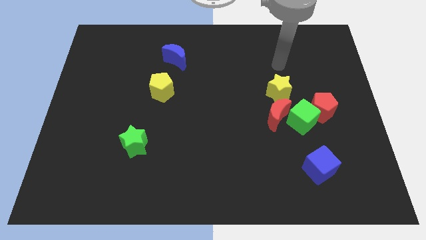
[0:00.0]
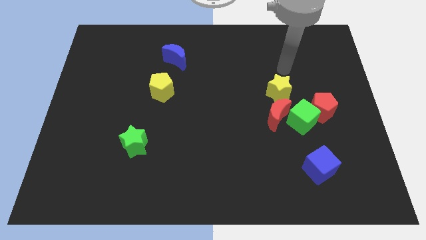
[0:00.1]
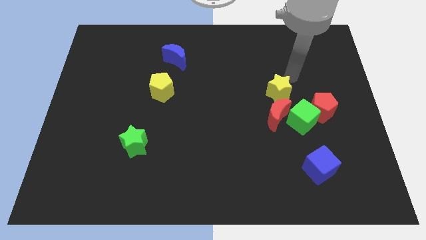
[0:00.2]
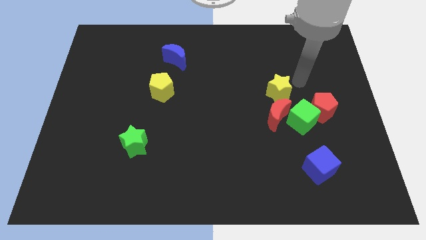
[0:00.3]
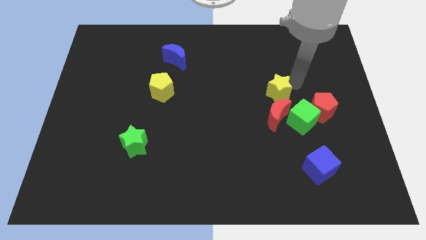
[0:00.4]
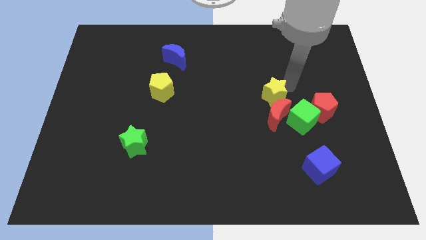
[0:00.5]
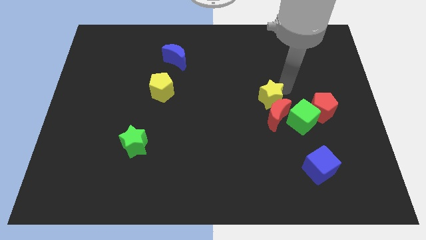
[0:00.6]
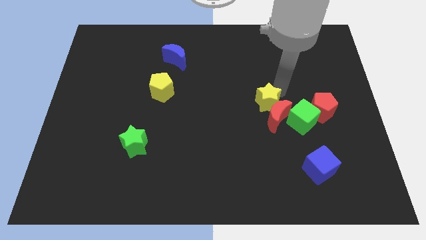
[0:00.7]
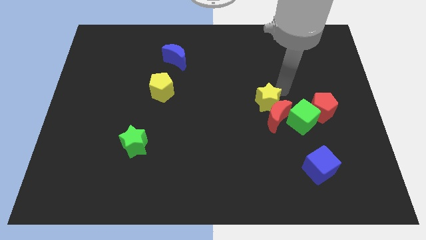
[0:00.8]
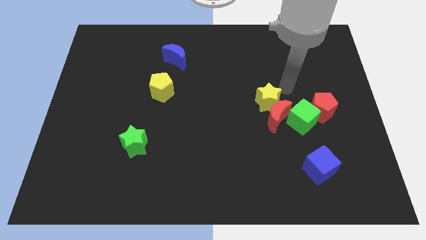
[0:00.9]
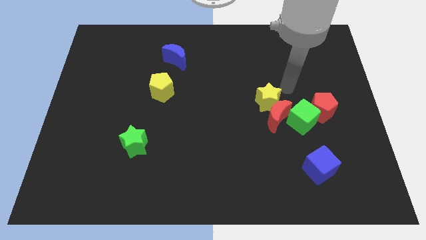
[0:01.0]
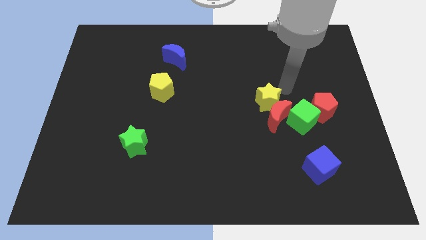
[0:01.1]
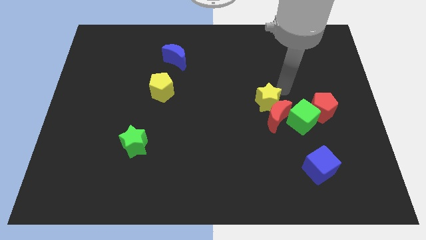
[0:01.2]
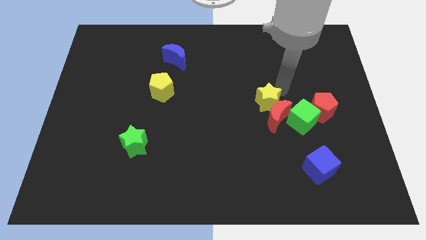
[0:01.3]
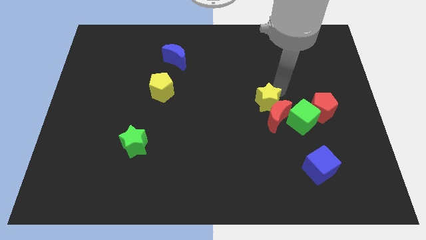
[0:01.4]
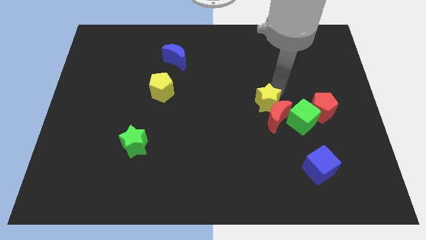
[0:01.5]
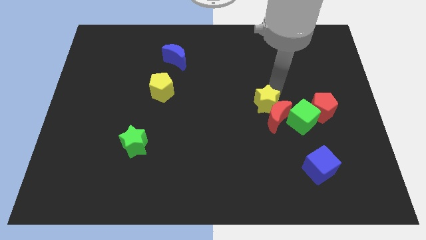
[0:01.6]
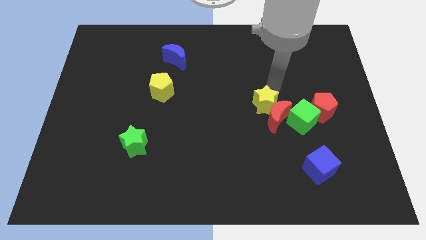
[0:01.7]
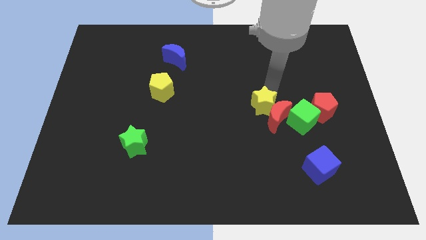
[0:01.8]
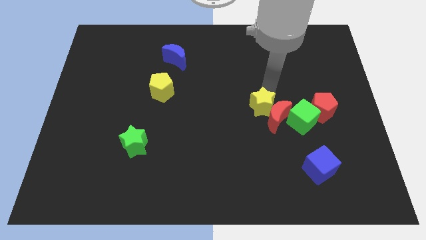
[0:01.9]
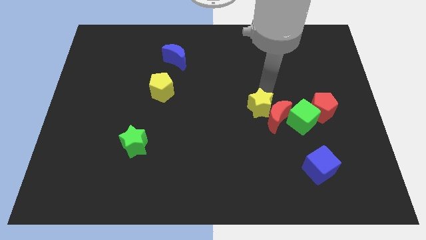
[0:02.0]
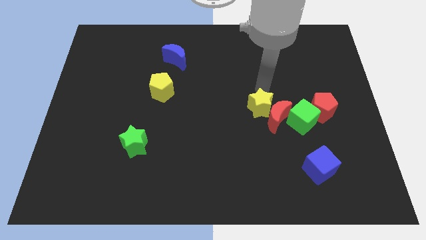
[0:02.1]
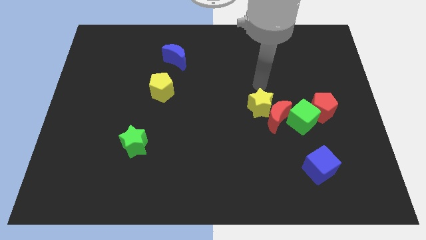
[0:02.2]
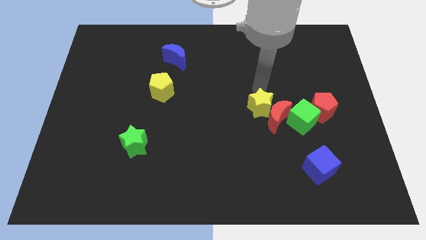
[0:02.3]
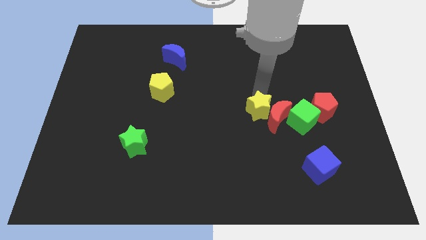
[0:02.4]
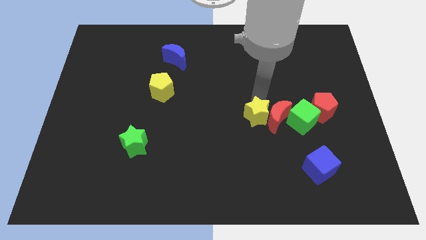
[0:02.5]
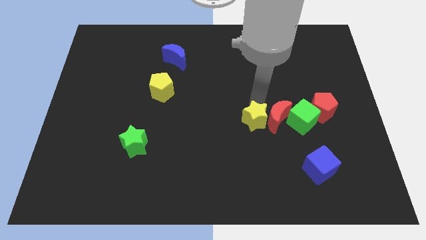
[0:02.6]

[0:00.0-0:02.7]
slightly slide the yellow star down

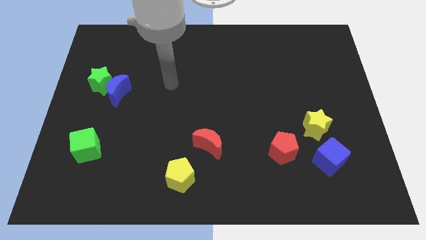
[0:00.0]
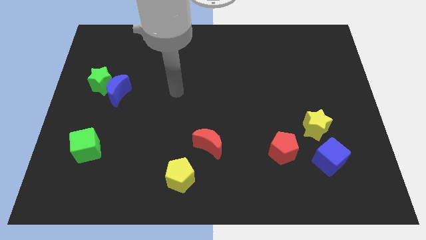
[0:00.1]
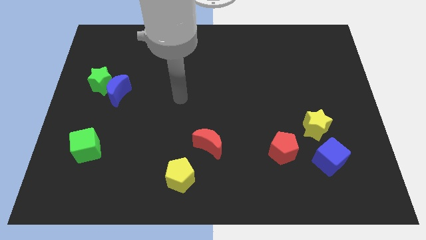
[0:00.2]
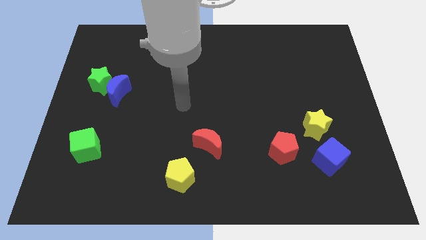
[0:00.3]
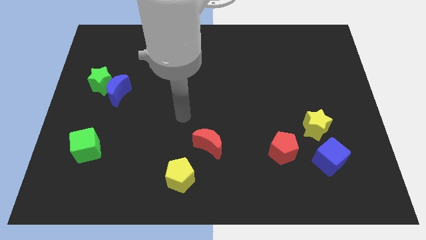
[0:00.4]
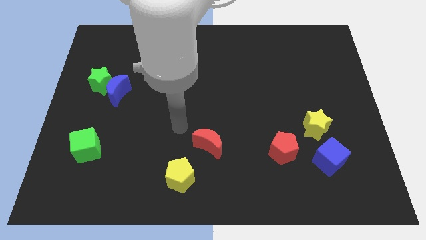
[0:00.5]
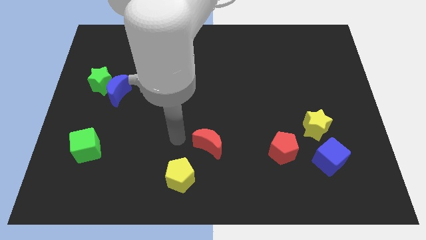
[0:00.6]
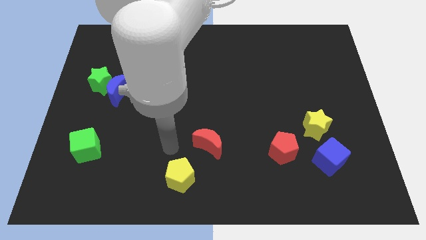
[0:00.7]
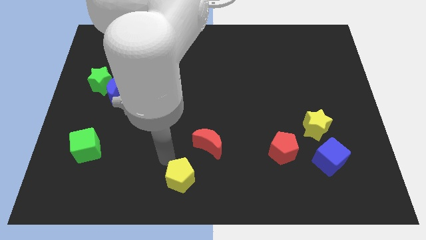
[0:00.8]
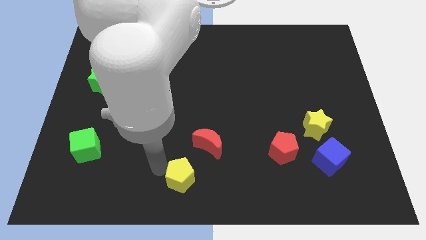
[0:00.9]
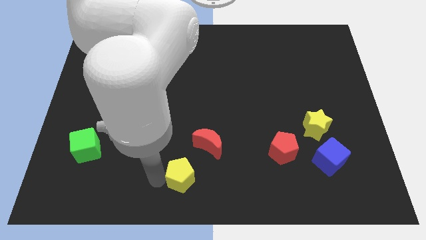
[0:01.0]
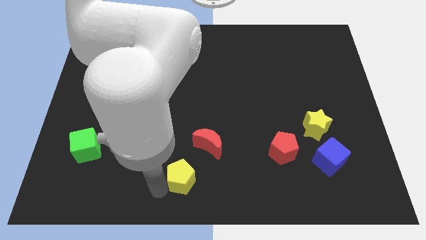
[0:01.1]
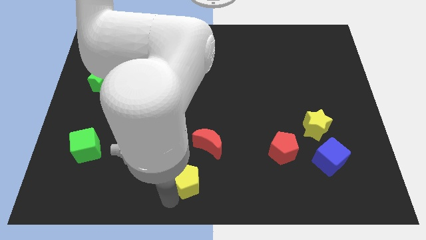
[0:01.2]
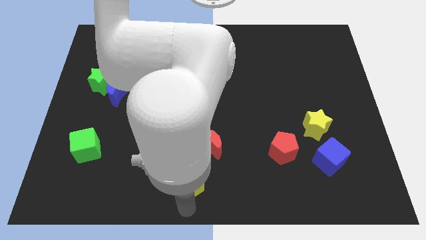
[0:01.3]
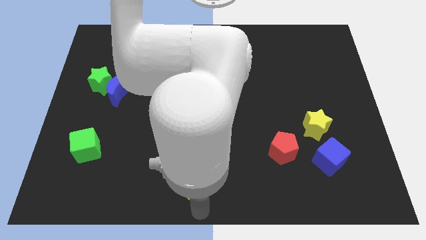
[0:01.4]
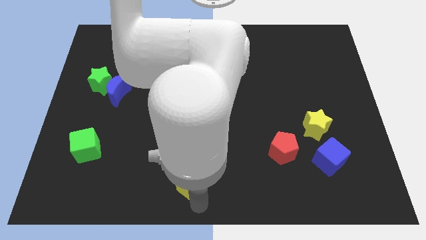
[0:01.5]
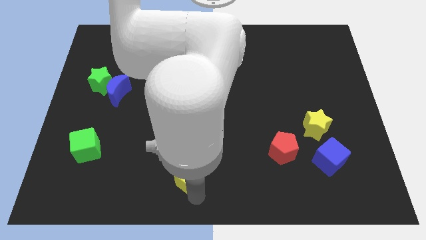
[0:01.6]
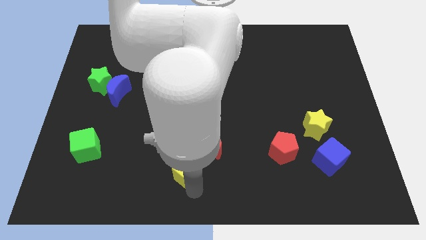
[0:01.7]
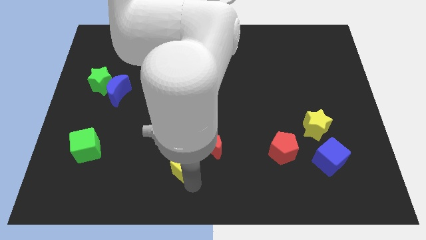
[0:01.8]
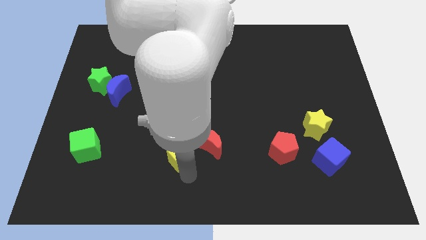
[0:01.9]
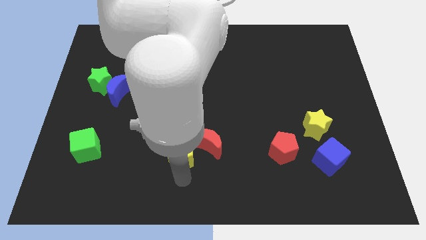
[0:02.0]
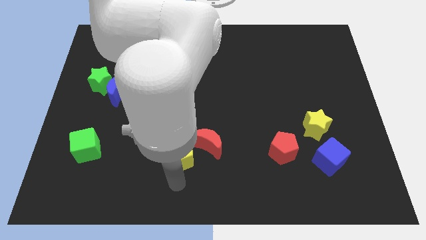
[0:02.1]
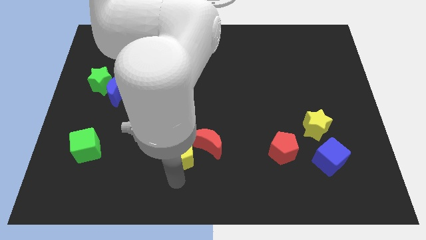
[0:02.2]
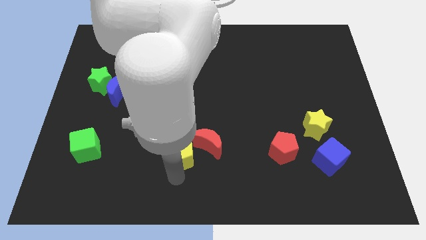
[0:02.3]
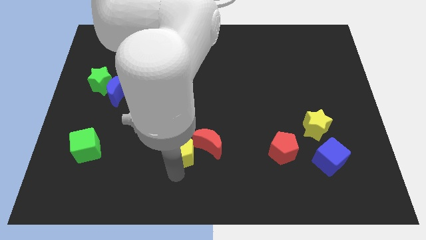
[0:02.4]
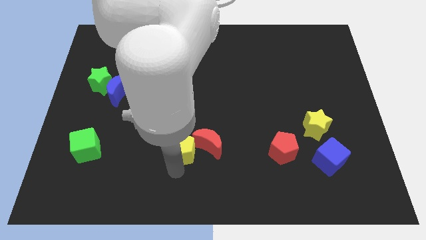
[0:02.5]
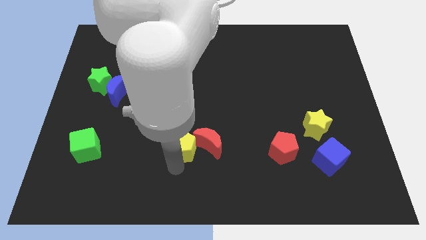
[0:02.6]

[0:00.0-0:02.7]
slightly slide the yellow pentagon up

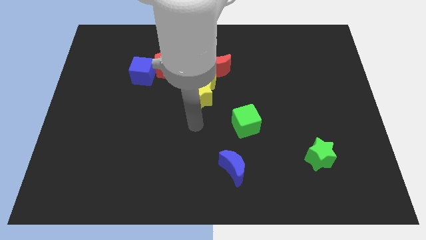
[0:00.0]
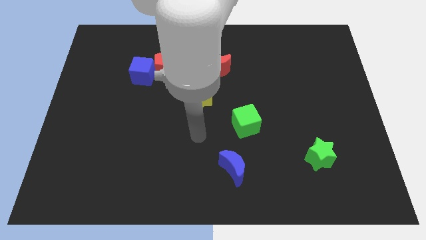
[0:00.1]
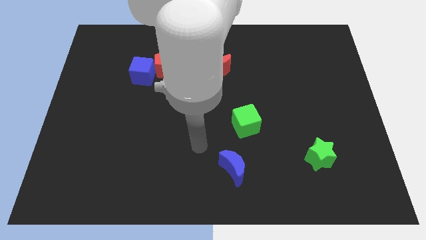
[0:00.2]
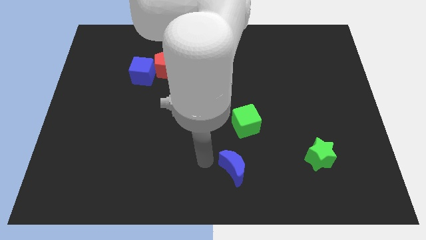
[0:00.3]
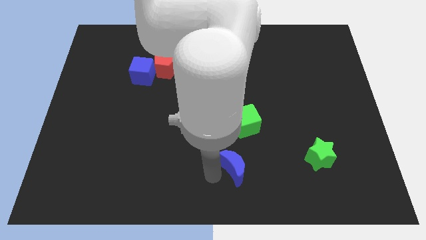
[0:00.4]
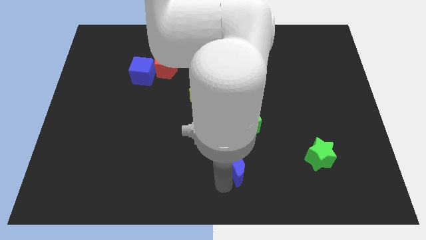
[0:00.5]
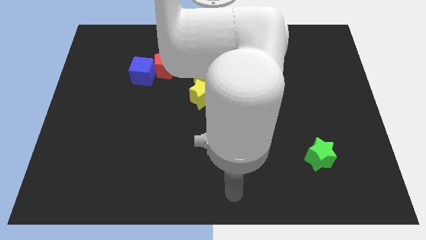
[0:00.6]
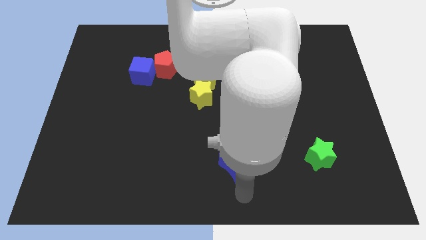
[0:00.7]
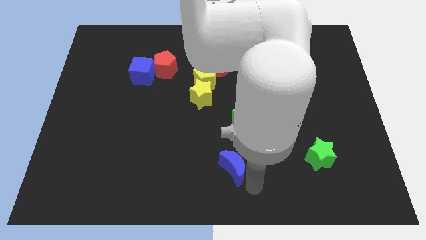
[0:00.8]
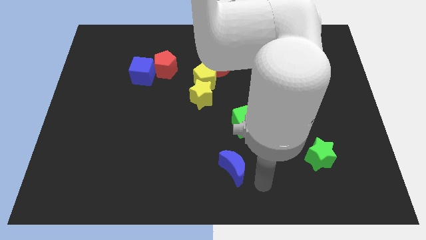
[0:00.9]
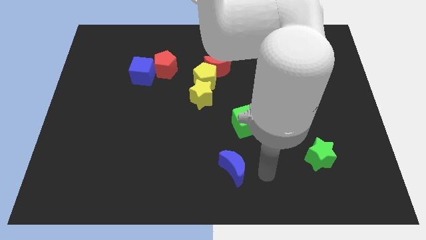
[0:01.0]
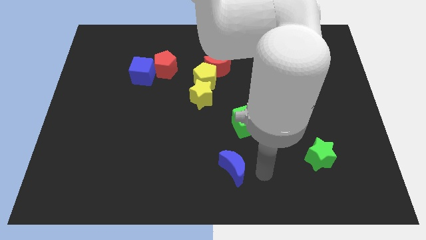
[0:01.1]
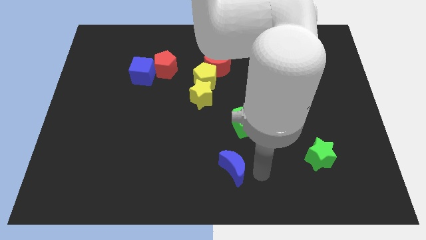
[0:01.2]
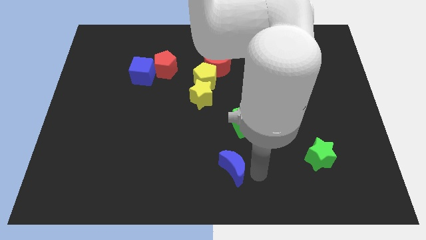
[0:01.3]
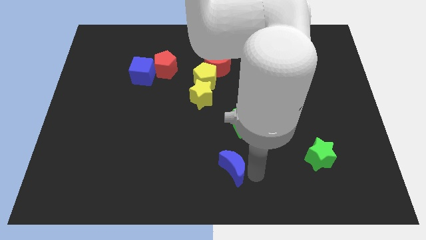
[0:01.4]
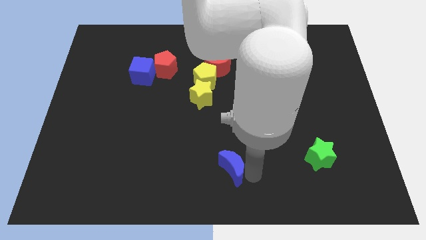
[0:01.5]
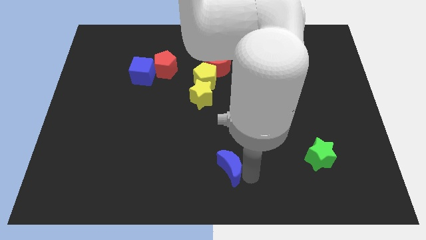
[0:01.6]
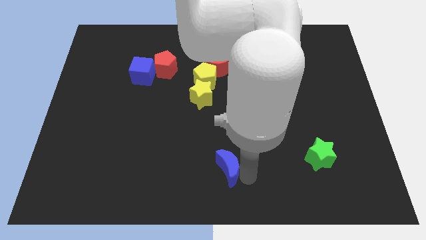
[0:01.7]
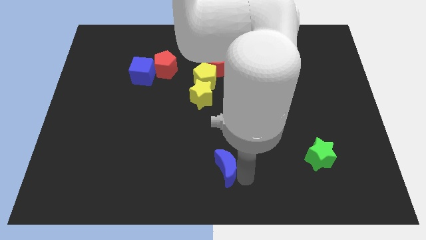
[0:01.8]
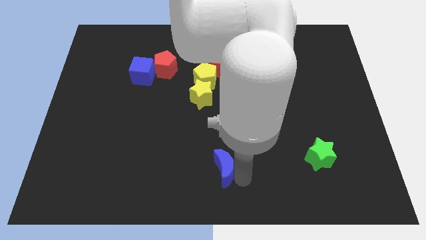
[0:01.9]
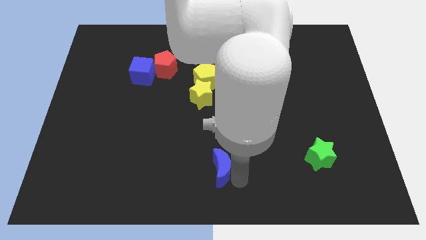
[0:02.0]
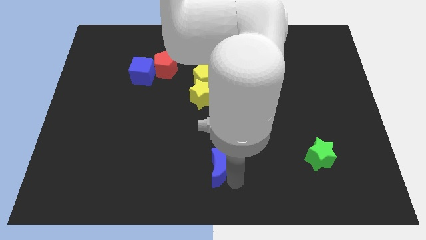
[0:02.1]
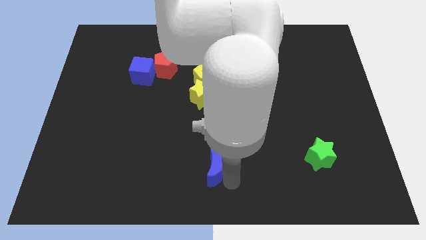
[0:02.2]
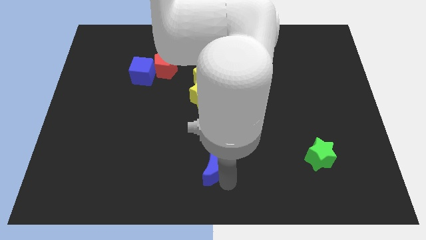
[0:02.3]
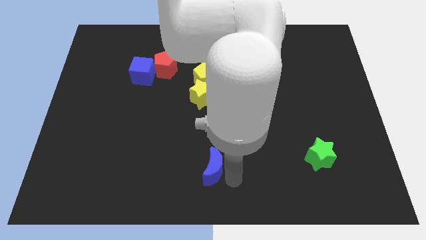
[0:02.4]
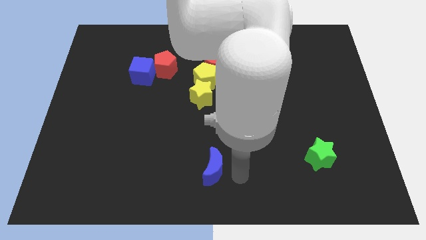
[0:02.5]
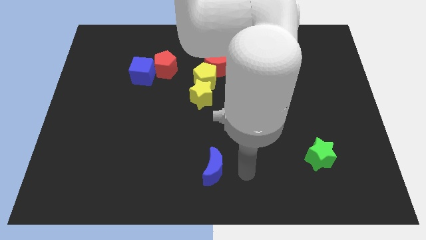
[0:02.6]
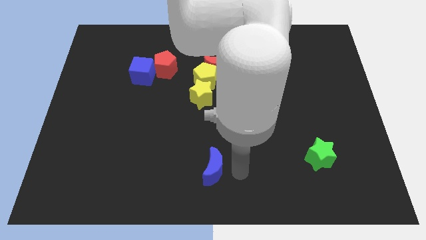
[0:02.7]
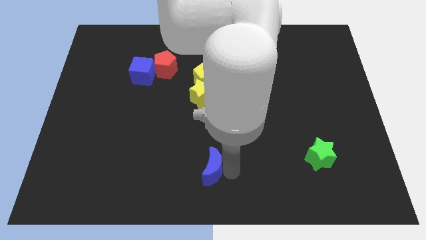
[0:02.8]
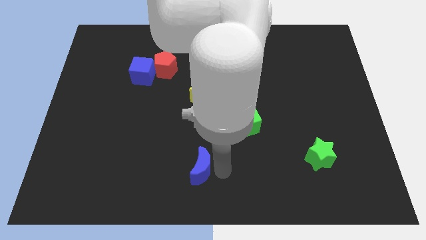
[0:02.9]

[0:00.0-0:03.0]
move the blue moon left somewhat
